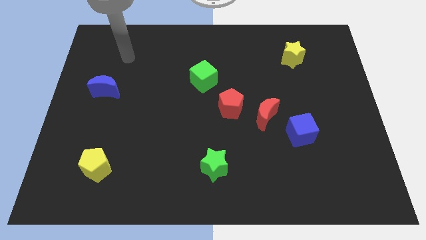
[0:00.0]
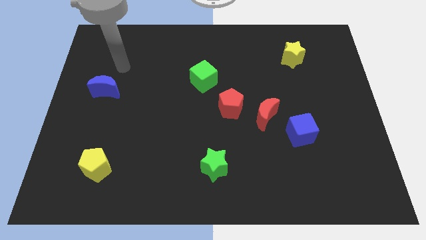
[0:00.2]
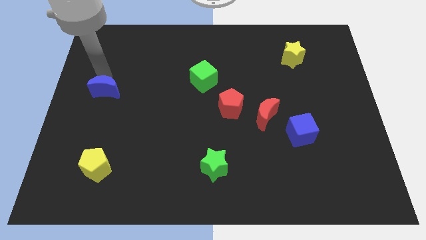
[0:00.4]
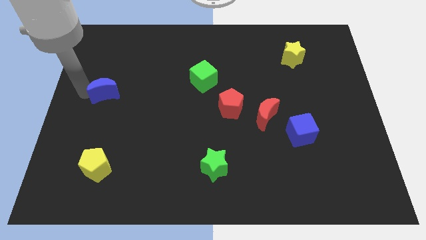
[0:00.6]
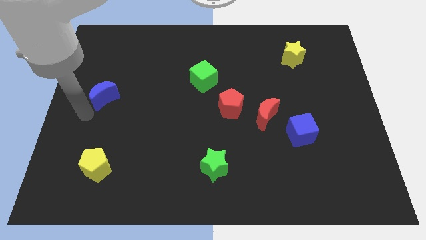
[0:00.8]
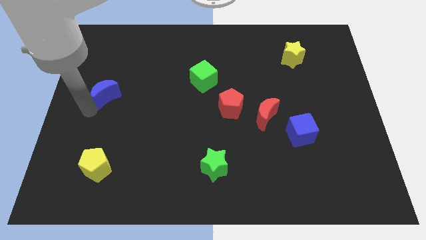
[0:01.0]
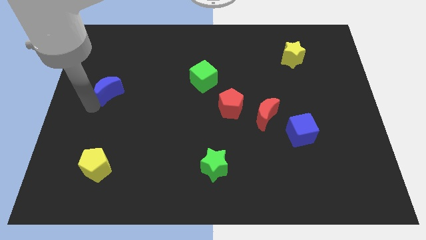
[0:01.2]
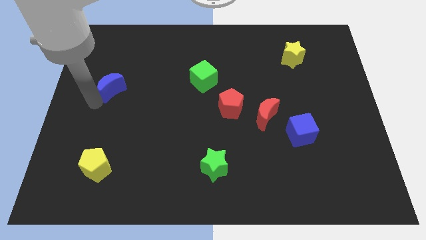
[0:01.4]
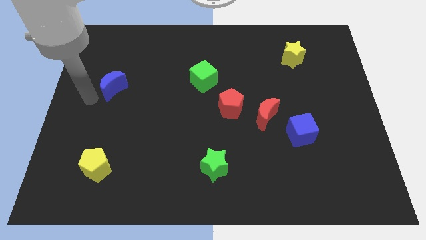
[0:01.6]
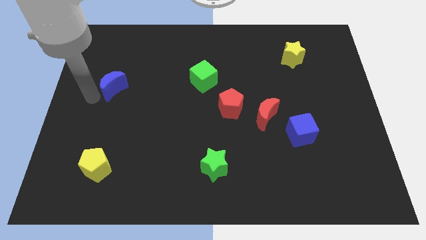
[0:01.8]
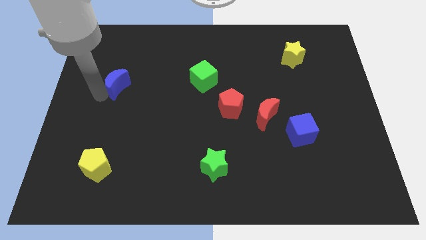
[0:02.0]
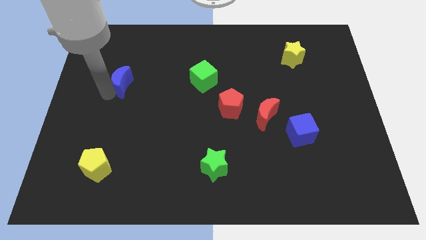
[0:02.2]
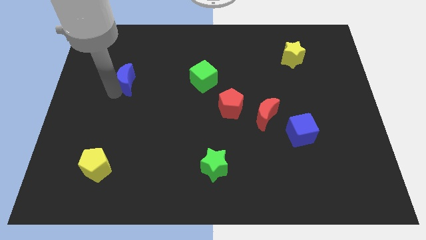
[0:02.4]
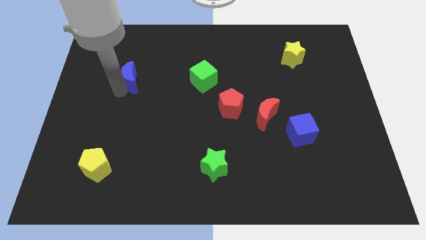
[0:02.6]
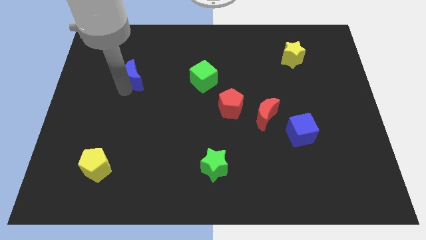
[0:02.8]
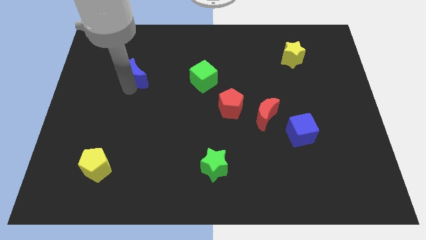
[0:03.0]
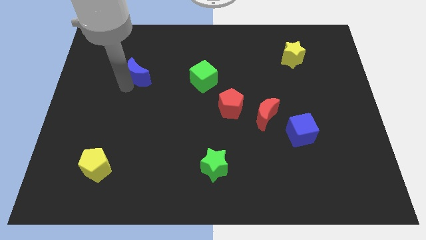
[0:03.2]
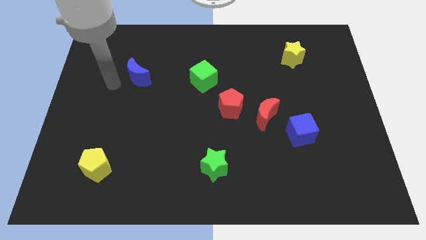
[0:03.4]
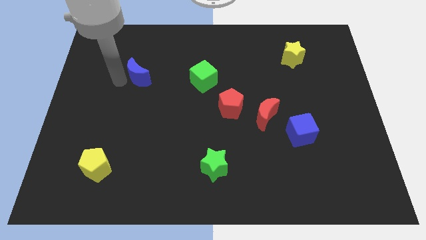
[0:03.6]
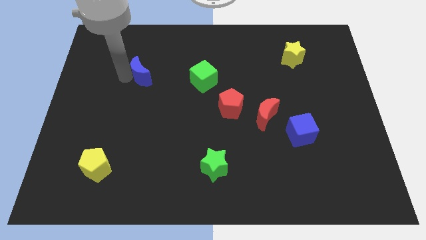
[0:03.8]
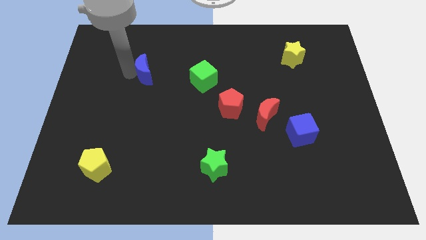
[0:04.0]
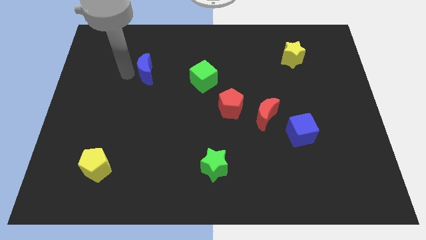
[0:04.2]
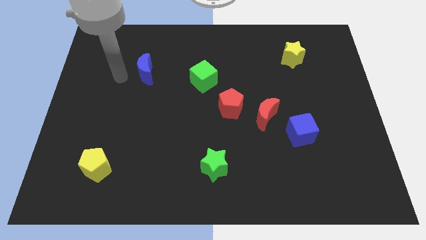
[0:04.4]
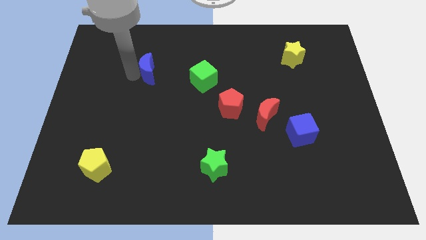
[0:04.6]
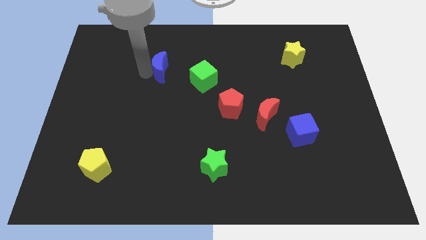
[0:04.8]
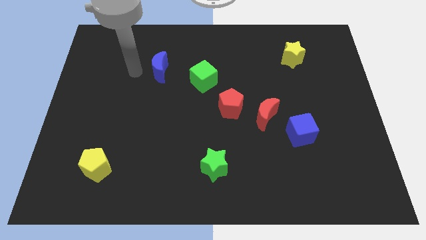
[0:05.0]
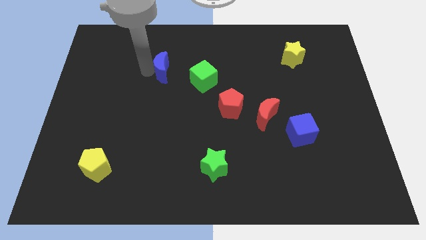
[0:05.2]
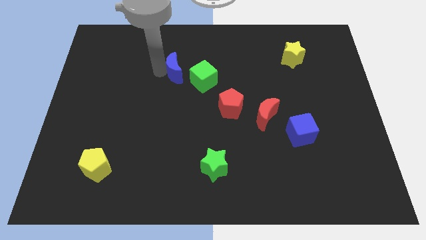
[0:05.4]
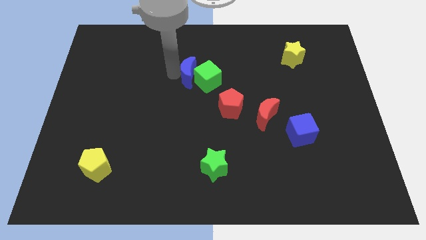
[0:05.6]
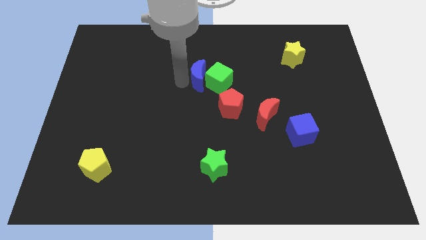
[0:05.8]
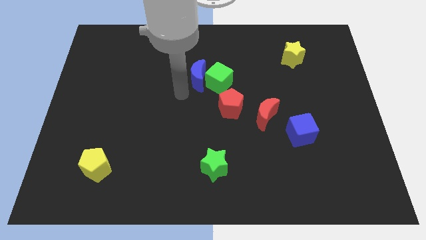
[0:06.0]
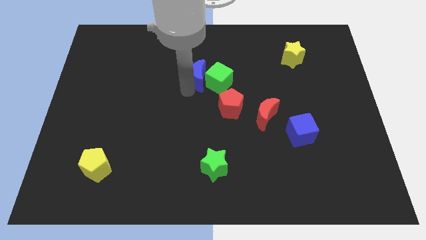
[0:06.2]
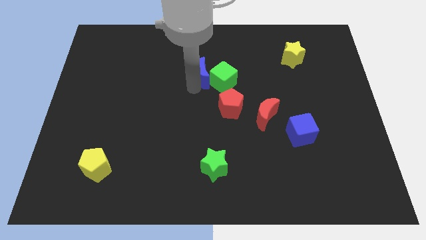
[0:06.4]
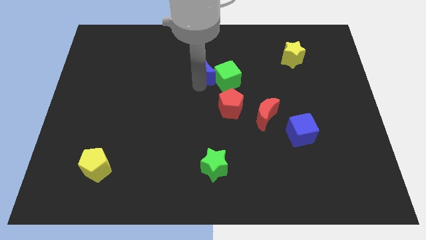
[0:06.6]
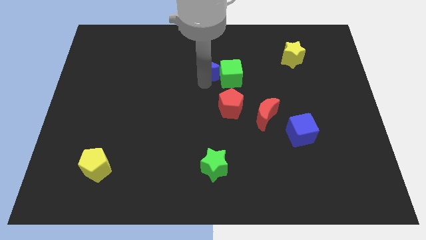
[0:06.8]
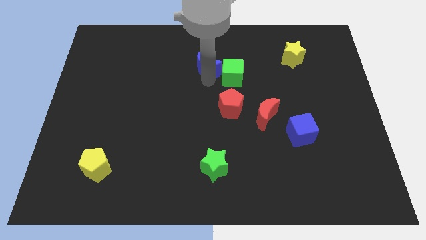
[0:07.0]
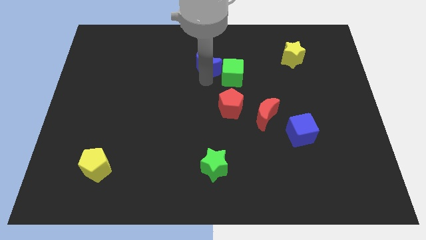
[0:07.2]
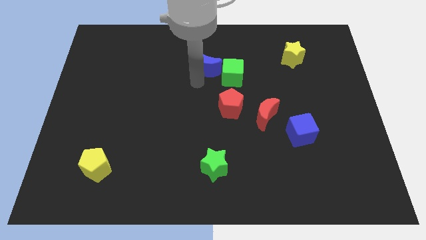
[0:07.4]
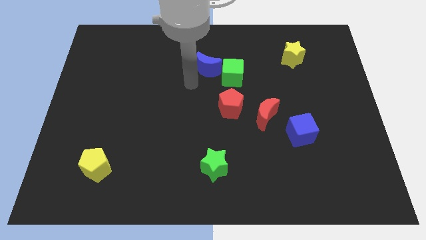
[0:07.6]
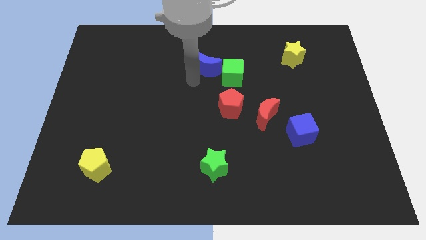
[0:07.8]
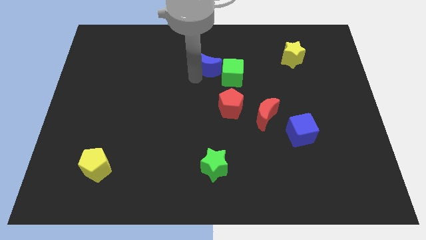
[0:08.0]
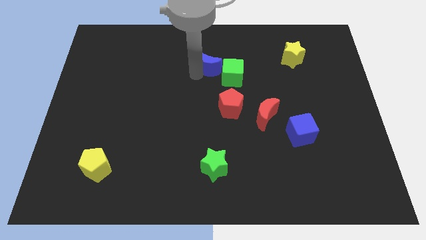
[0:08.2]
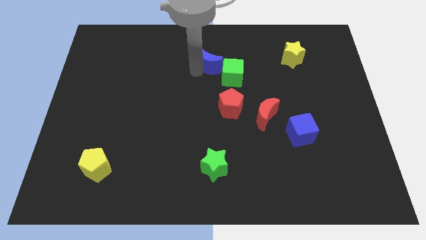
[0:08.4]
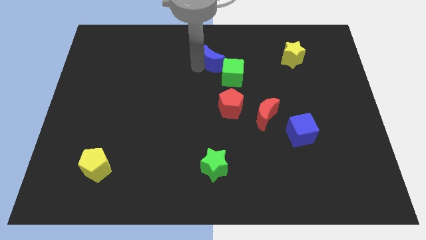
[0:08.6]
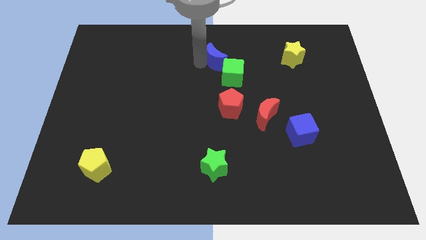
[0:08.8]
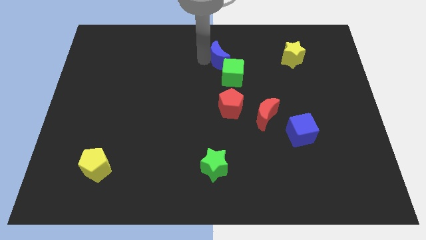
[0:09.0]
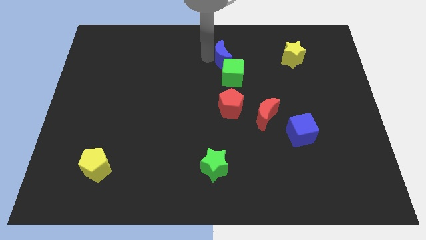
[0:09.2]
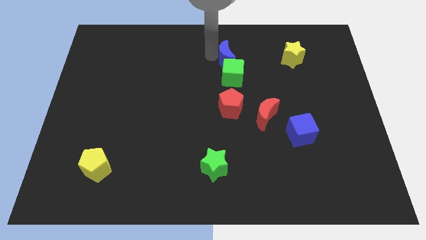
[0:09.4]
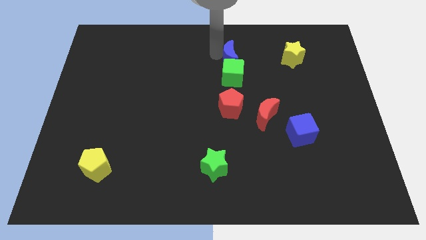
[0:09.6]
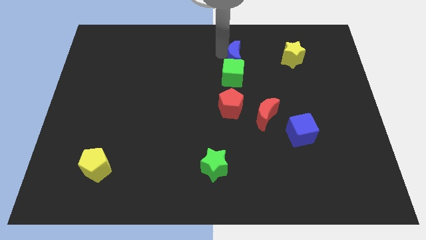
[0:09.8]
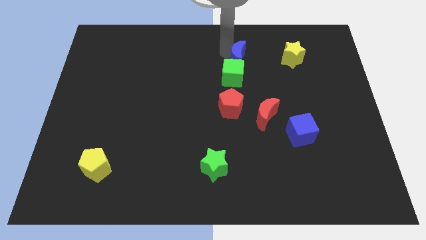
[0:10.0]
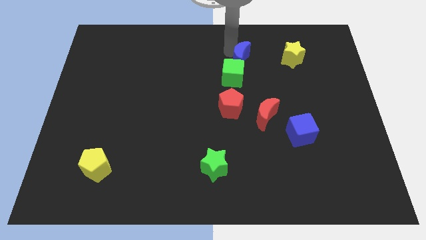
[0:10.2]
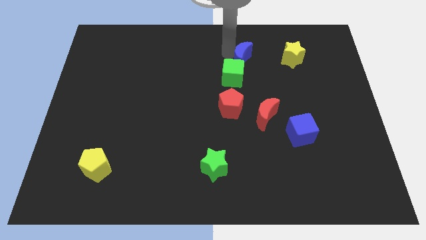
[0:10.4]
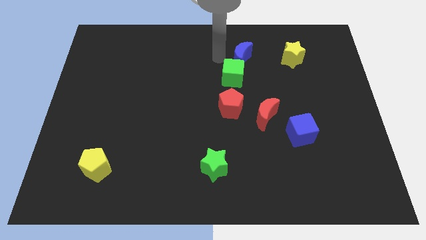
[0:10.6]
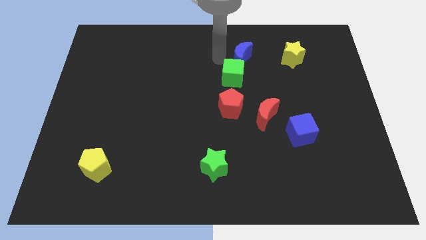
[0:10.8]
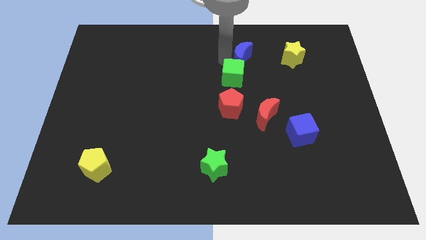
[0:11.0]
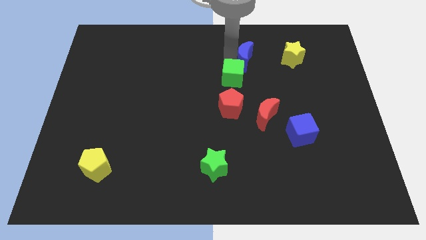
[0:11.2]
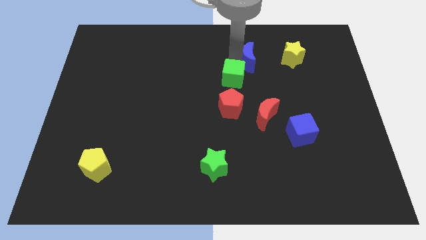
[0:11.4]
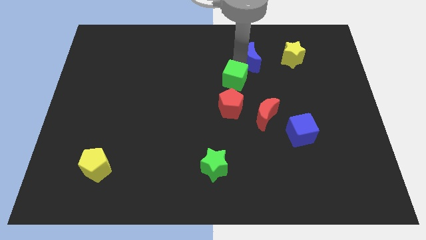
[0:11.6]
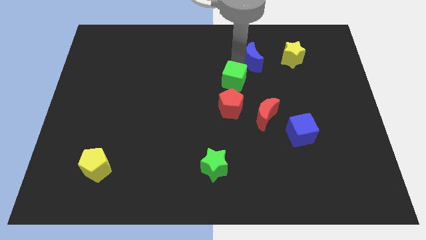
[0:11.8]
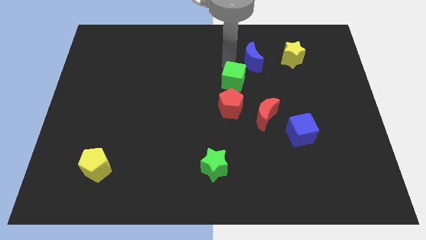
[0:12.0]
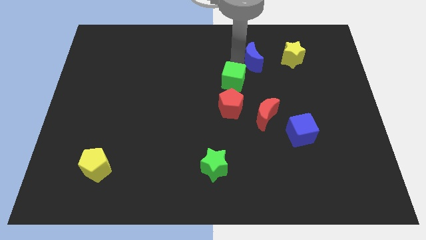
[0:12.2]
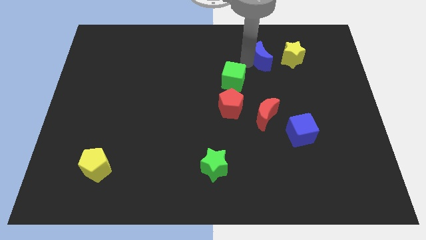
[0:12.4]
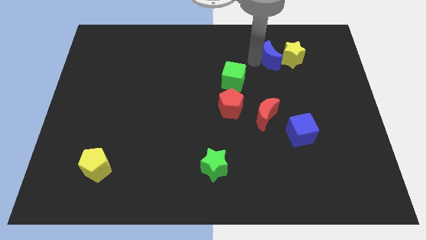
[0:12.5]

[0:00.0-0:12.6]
push the blue moon towards the yellow star

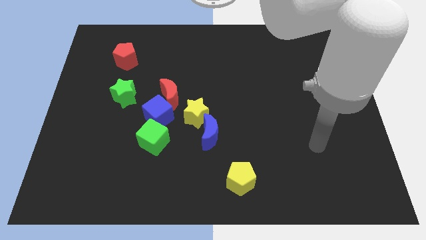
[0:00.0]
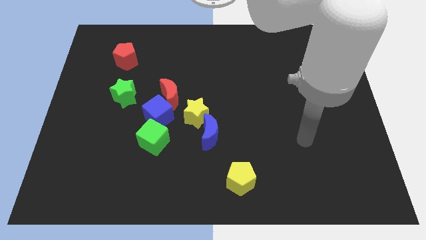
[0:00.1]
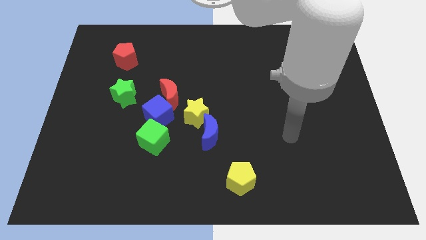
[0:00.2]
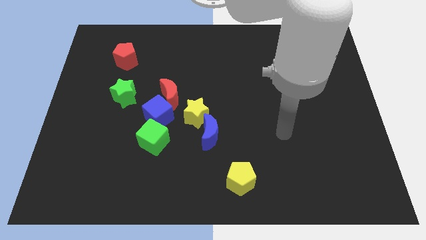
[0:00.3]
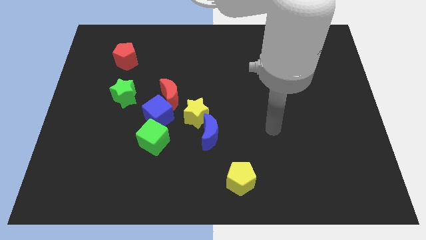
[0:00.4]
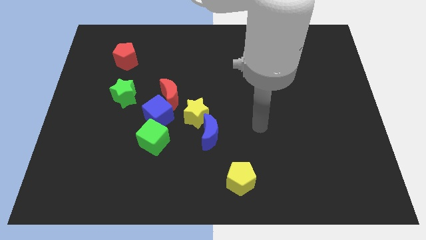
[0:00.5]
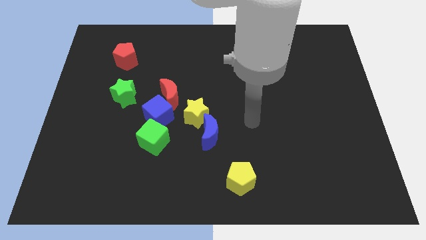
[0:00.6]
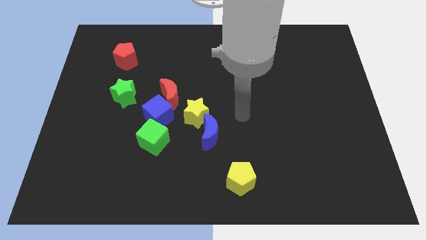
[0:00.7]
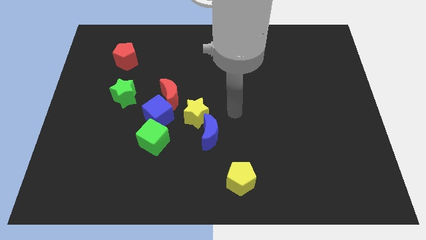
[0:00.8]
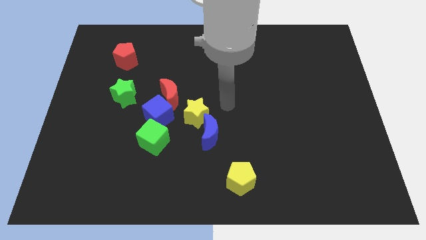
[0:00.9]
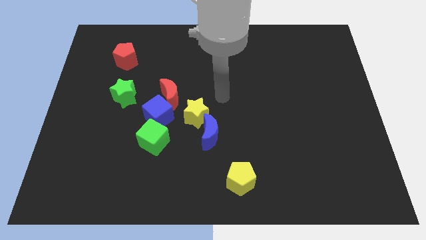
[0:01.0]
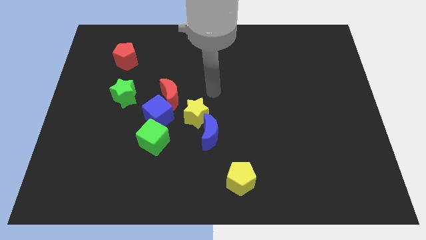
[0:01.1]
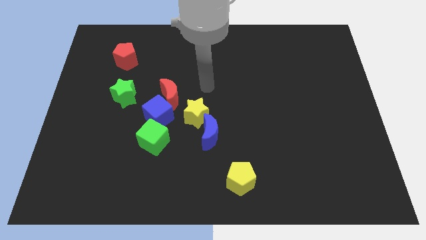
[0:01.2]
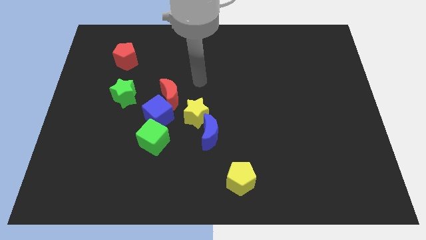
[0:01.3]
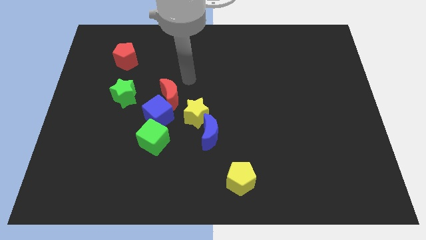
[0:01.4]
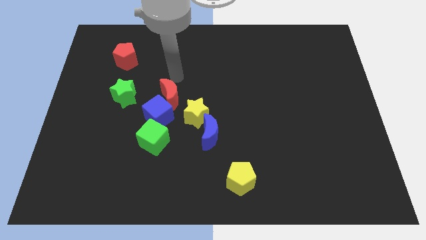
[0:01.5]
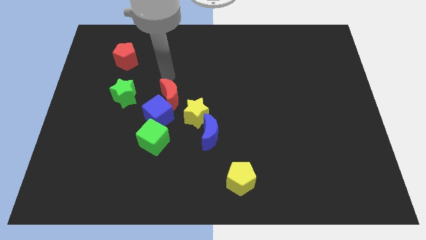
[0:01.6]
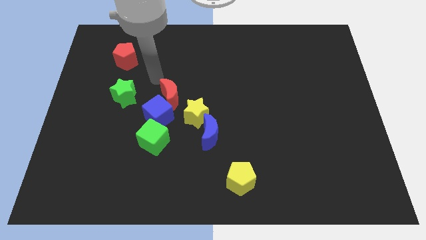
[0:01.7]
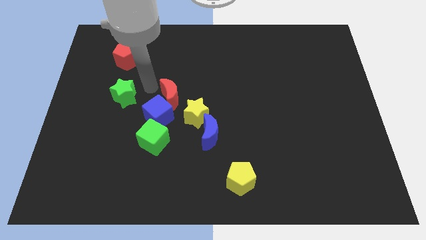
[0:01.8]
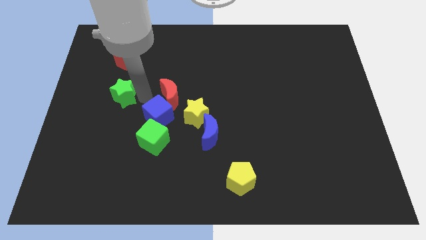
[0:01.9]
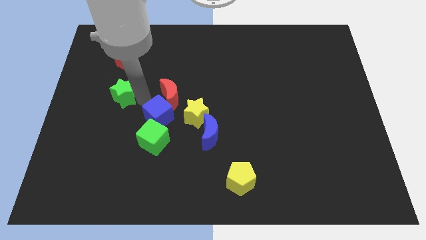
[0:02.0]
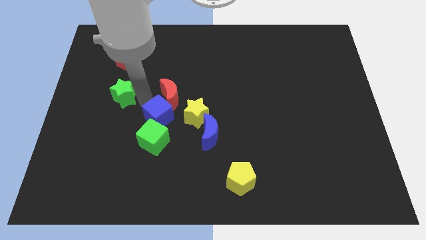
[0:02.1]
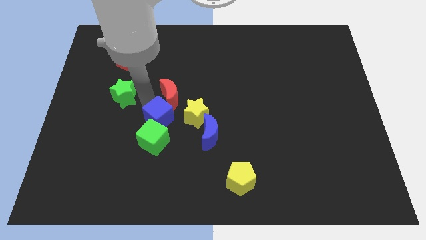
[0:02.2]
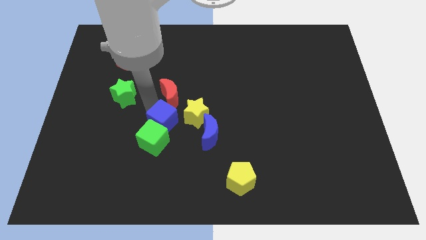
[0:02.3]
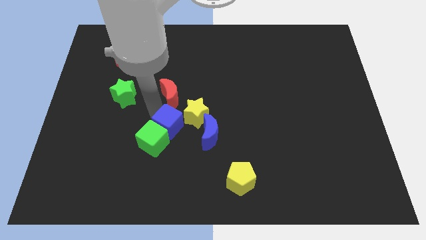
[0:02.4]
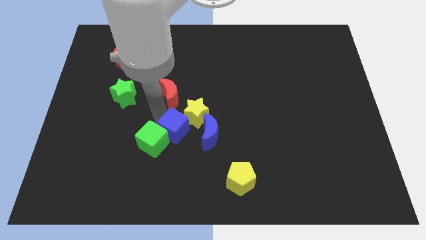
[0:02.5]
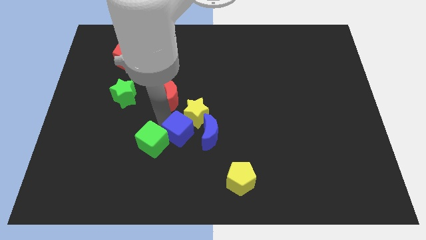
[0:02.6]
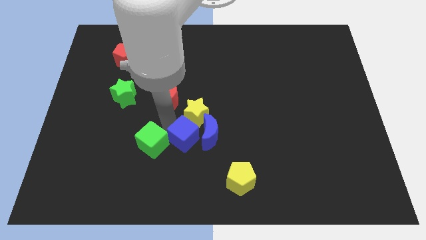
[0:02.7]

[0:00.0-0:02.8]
put the blue cube close to the blue moon
